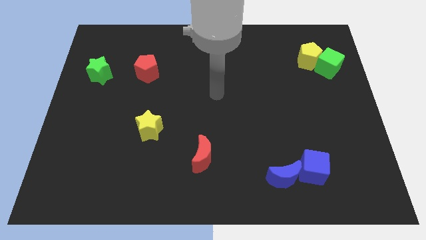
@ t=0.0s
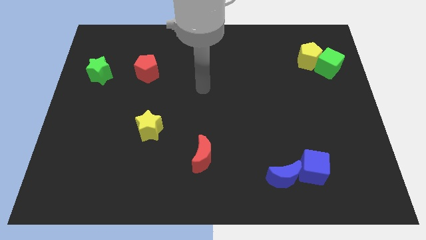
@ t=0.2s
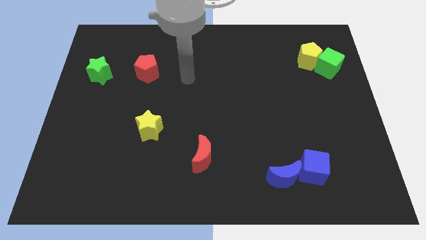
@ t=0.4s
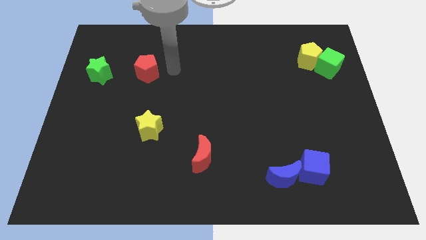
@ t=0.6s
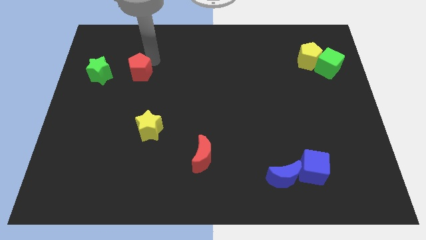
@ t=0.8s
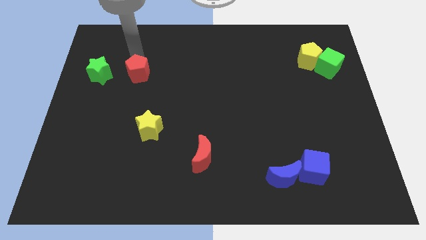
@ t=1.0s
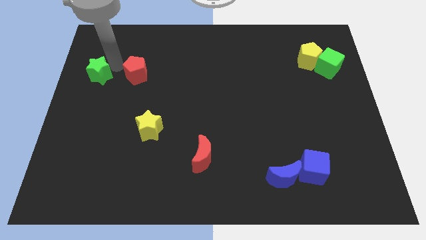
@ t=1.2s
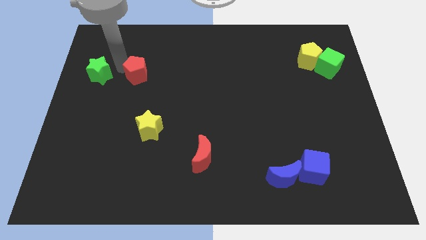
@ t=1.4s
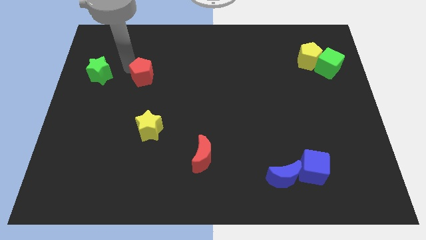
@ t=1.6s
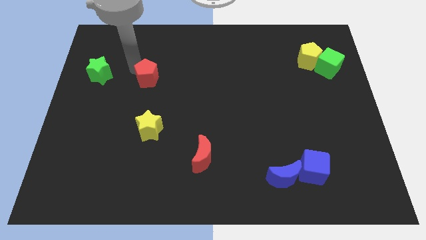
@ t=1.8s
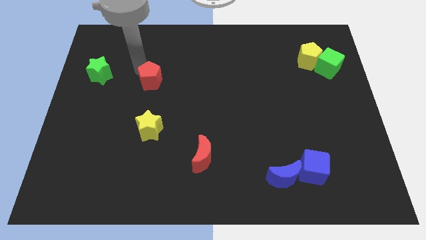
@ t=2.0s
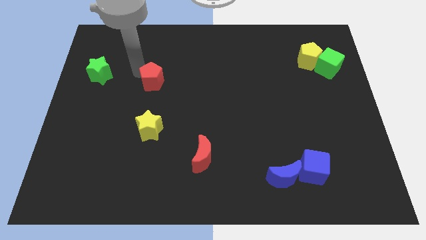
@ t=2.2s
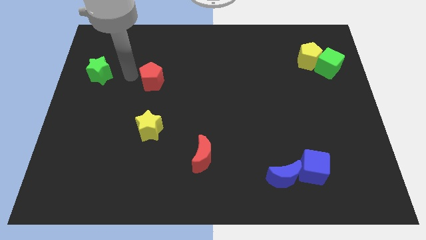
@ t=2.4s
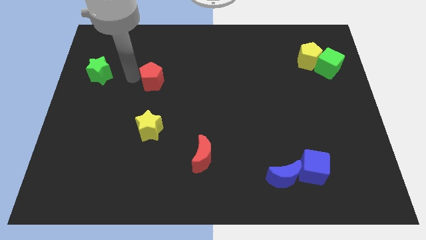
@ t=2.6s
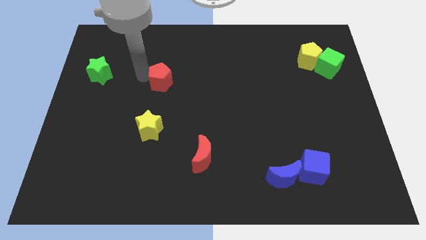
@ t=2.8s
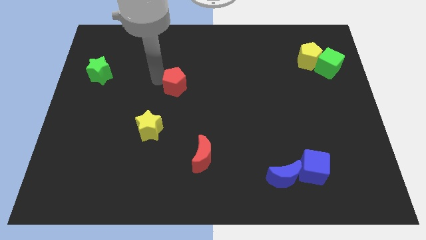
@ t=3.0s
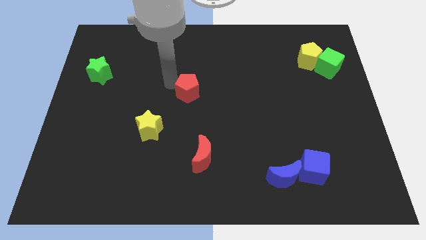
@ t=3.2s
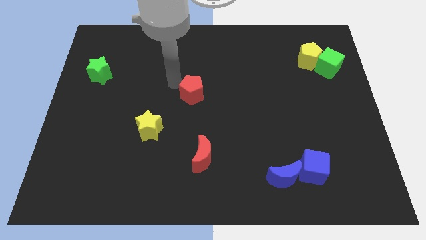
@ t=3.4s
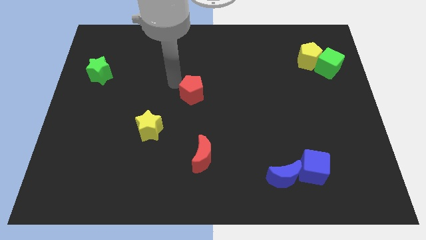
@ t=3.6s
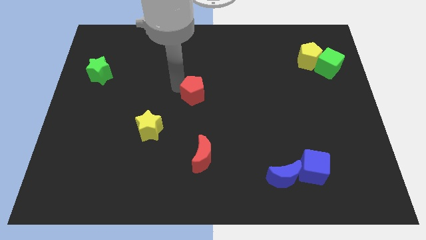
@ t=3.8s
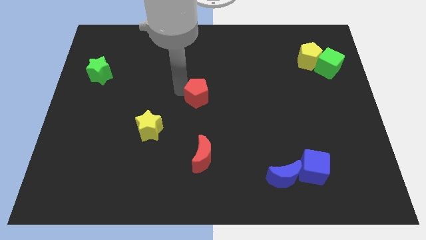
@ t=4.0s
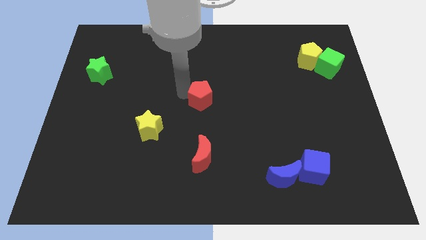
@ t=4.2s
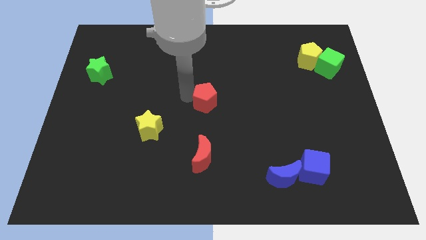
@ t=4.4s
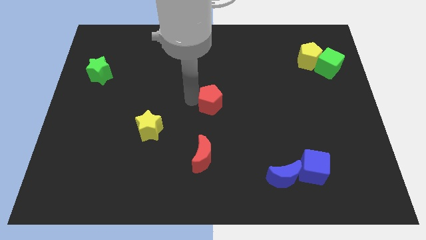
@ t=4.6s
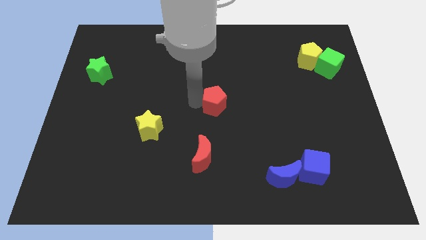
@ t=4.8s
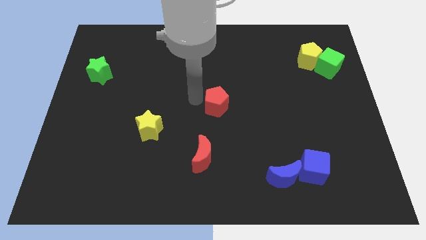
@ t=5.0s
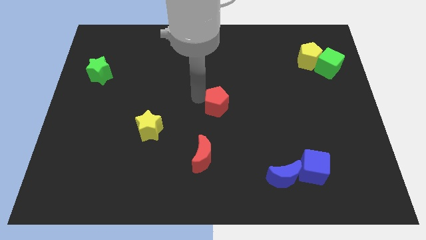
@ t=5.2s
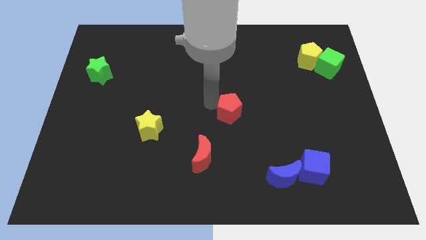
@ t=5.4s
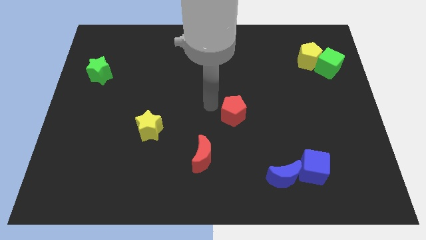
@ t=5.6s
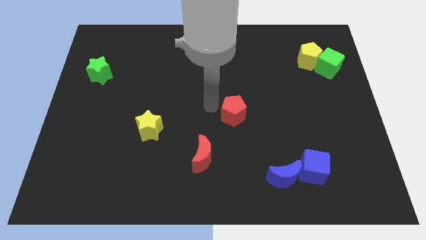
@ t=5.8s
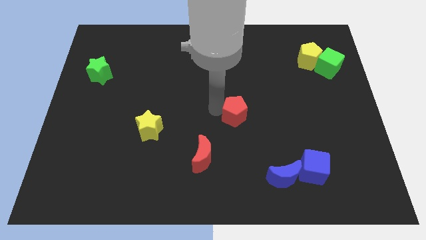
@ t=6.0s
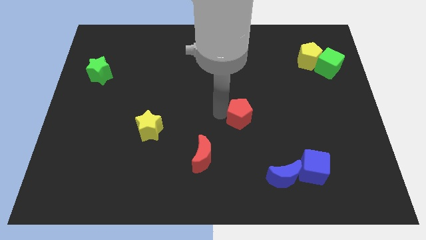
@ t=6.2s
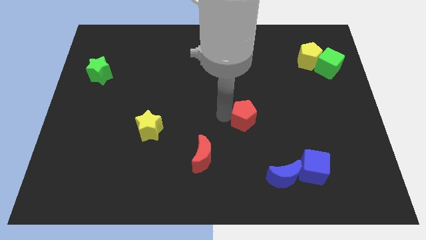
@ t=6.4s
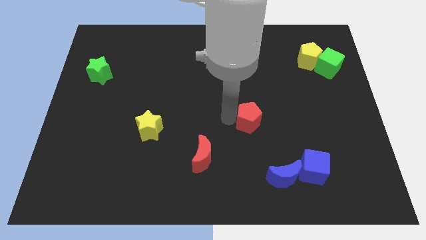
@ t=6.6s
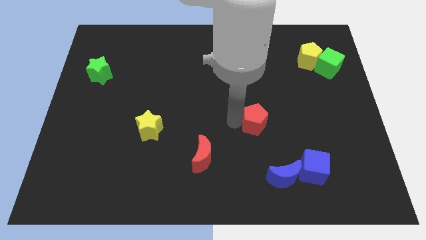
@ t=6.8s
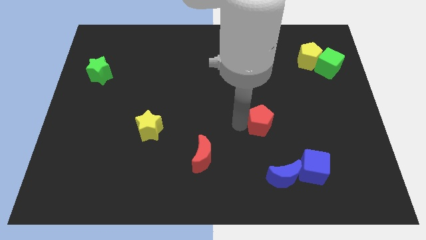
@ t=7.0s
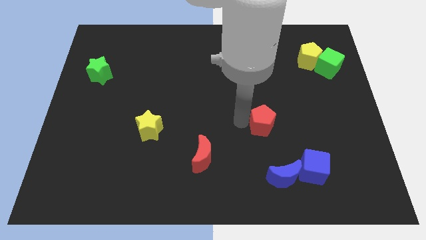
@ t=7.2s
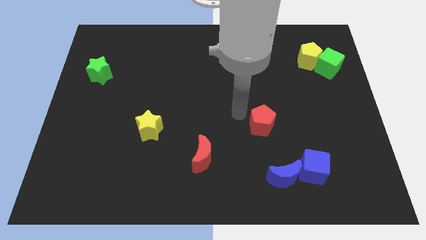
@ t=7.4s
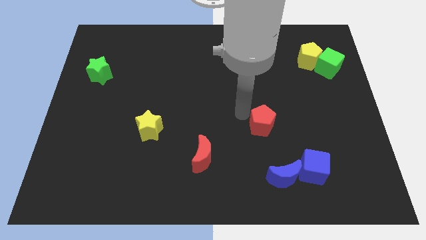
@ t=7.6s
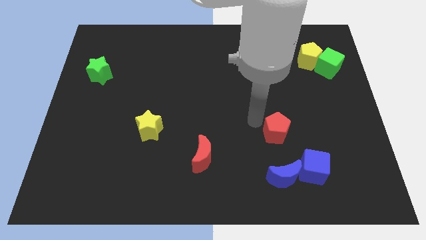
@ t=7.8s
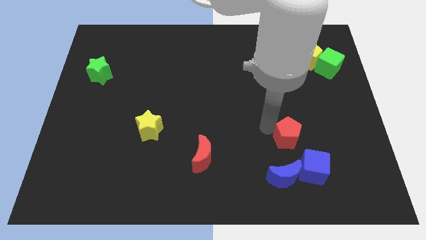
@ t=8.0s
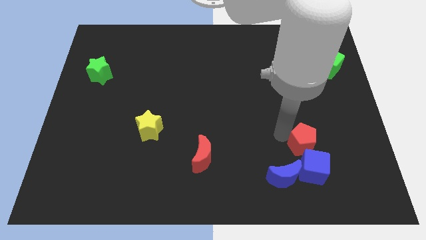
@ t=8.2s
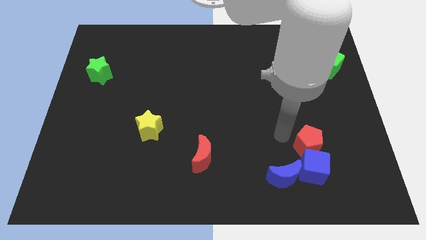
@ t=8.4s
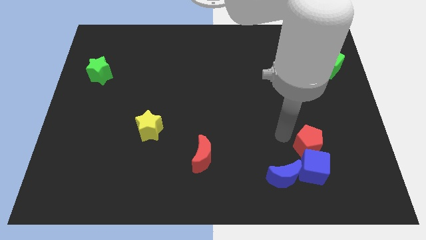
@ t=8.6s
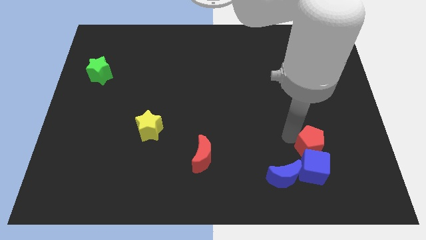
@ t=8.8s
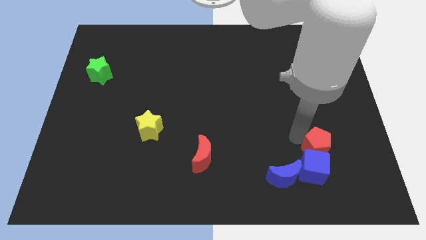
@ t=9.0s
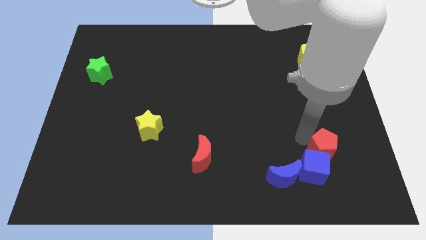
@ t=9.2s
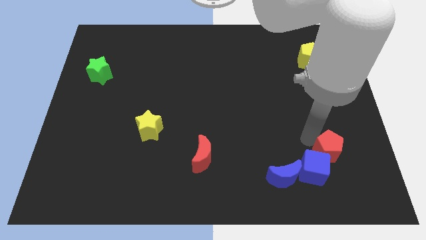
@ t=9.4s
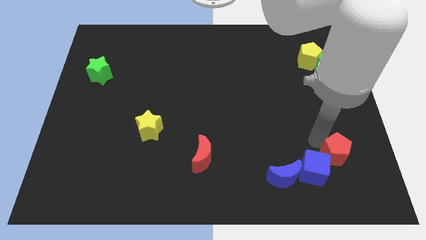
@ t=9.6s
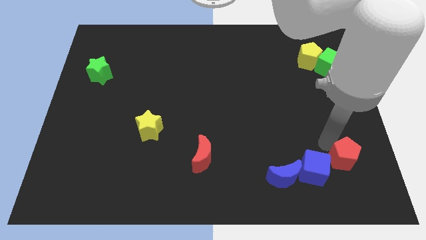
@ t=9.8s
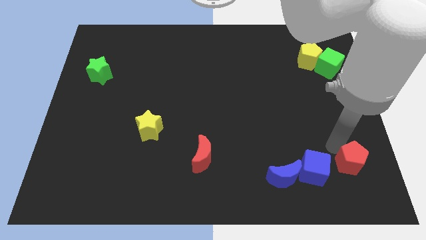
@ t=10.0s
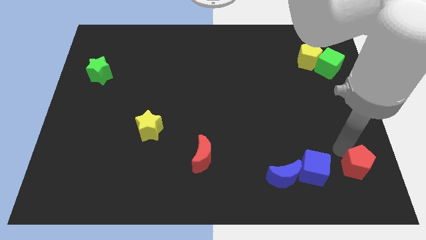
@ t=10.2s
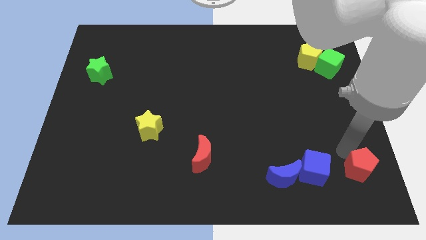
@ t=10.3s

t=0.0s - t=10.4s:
slide the red pentagon to the bottom right of the board

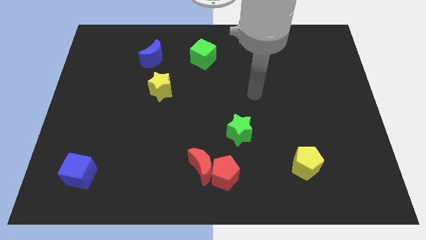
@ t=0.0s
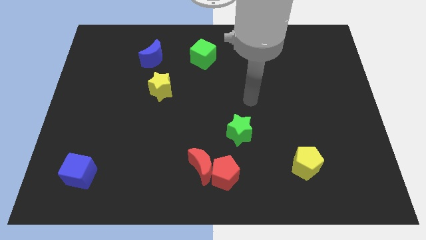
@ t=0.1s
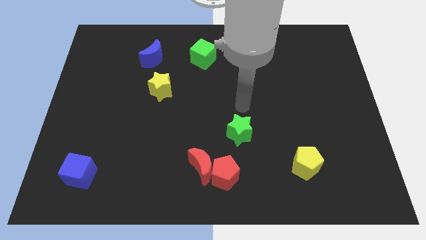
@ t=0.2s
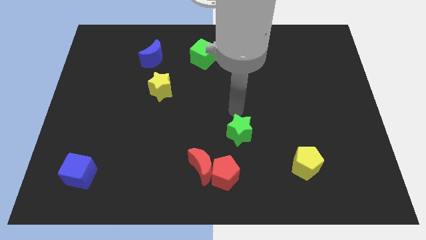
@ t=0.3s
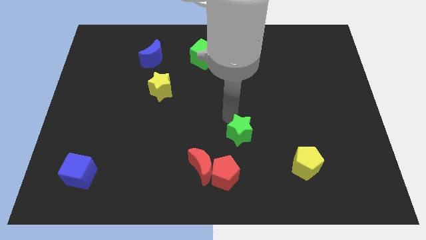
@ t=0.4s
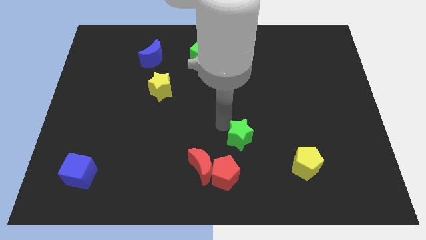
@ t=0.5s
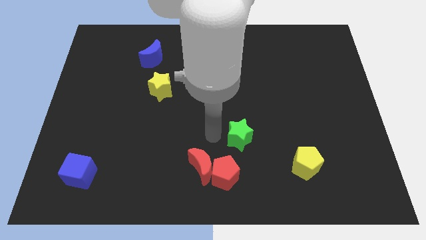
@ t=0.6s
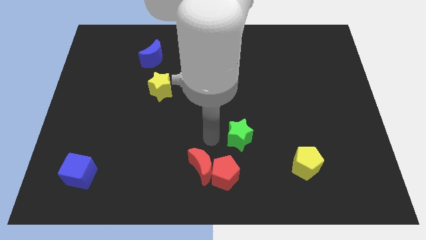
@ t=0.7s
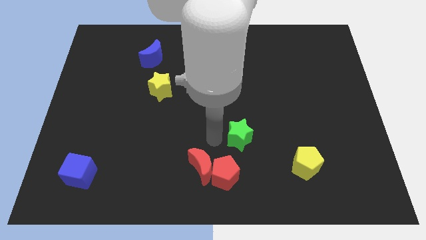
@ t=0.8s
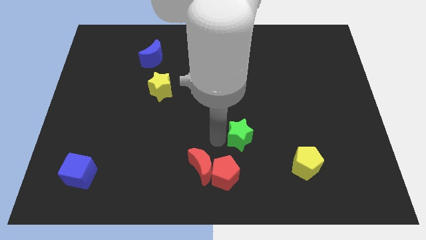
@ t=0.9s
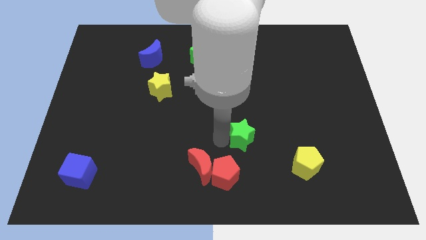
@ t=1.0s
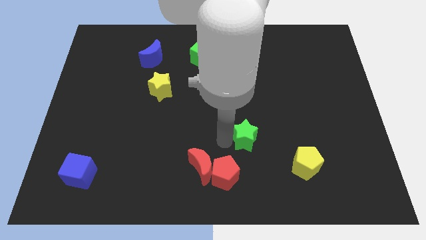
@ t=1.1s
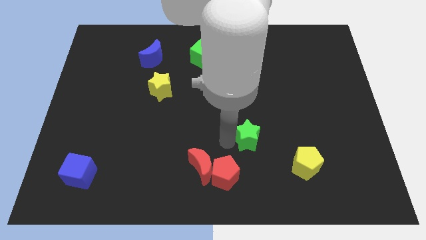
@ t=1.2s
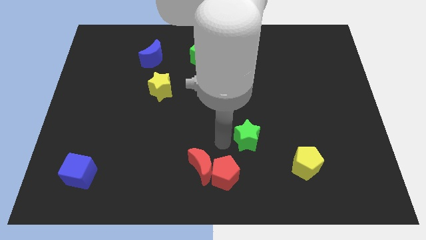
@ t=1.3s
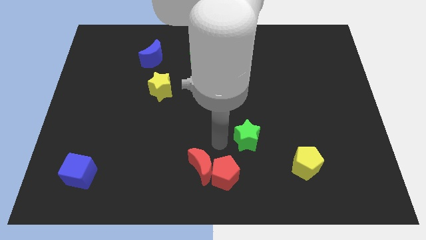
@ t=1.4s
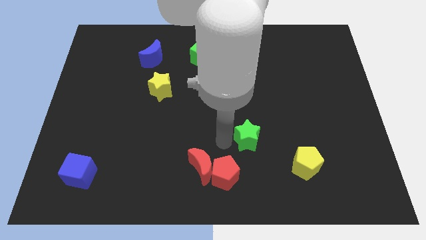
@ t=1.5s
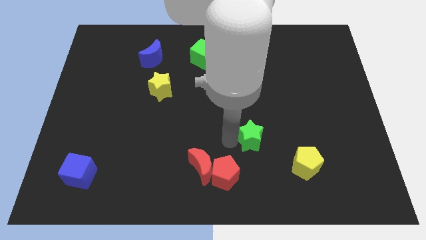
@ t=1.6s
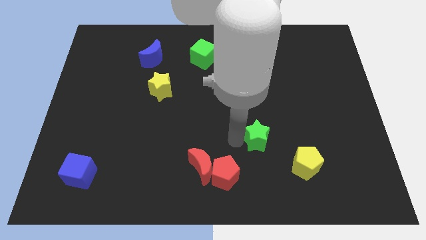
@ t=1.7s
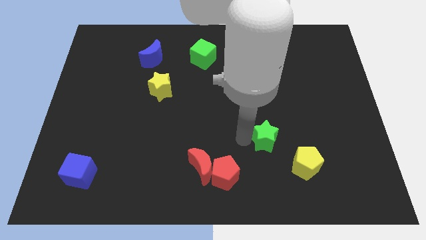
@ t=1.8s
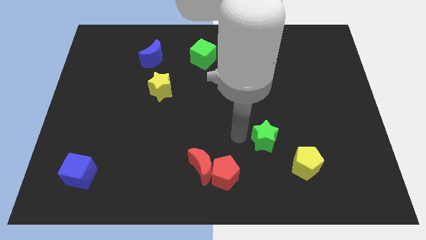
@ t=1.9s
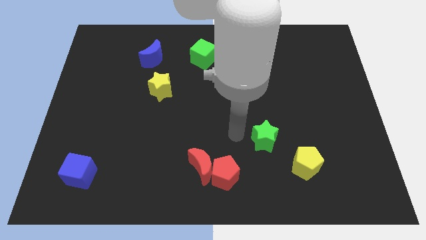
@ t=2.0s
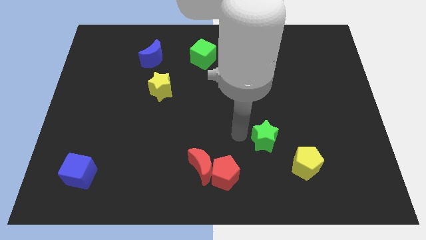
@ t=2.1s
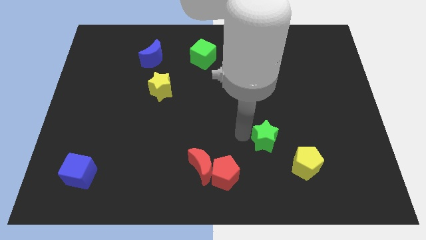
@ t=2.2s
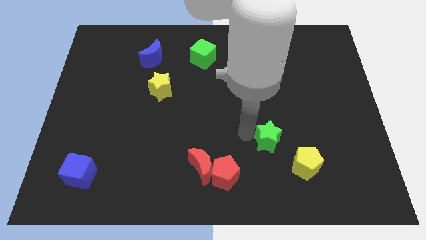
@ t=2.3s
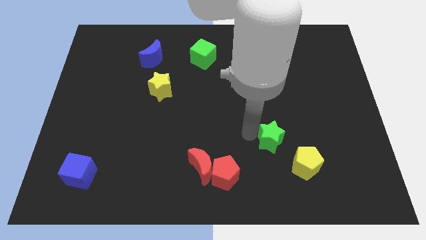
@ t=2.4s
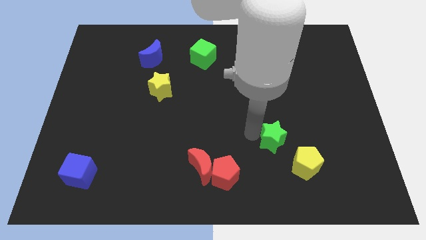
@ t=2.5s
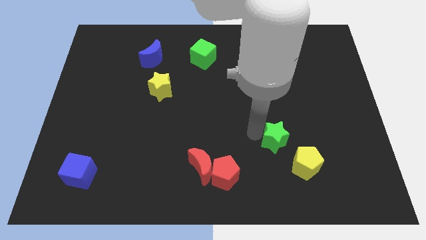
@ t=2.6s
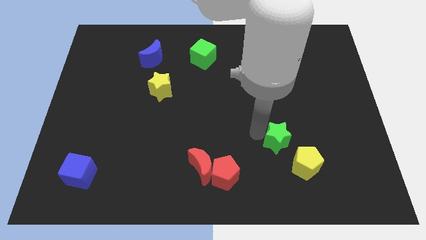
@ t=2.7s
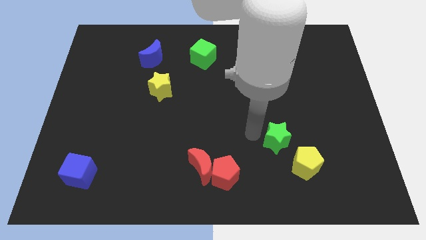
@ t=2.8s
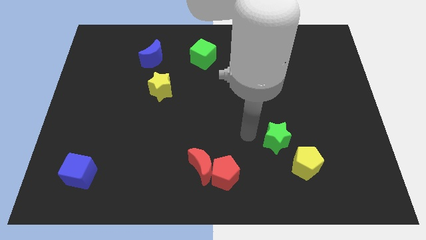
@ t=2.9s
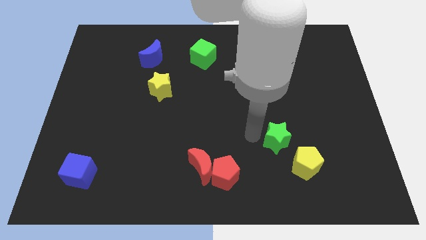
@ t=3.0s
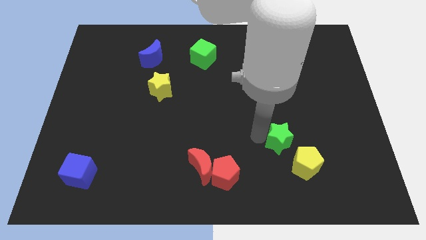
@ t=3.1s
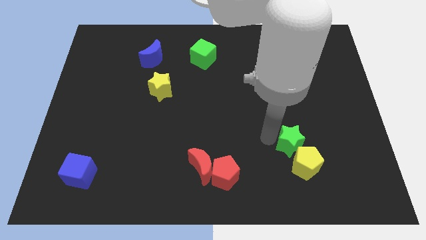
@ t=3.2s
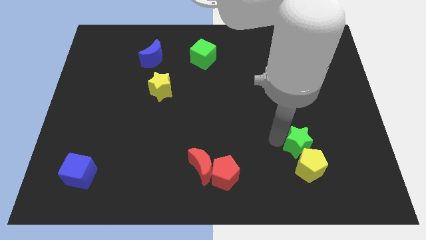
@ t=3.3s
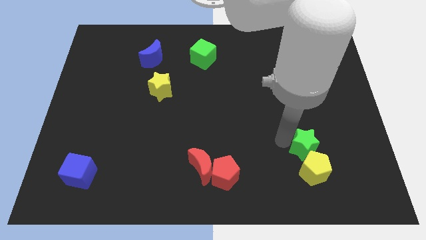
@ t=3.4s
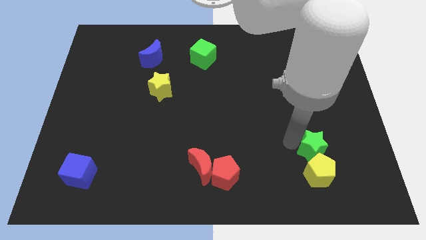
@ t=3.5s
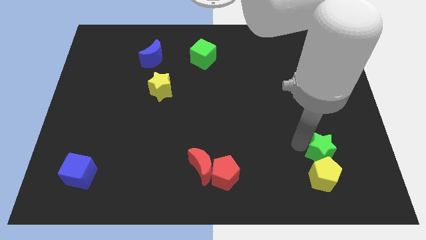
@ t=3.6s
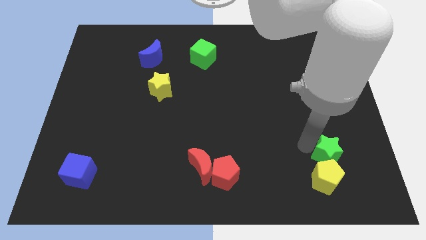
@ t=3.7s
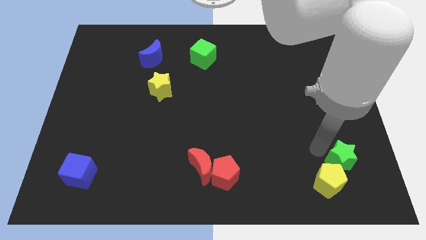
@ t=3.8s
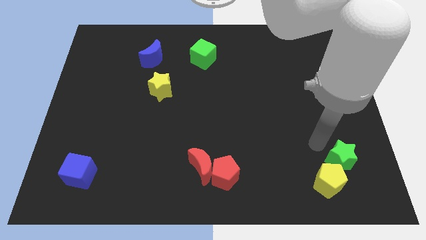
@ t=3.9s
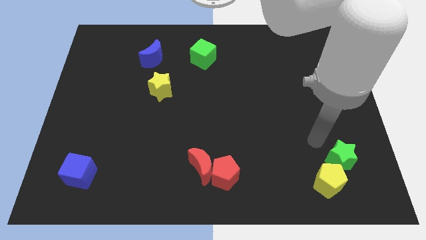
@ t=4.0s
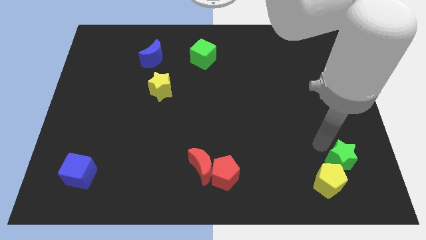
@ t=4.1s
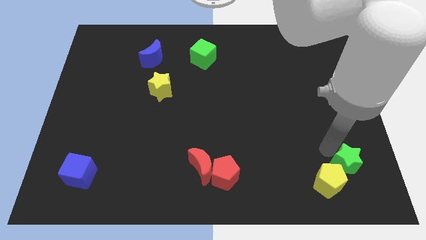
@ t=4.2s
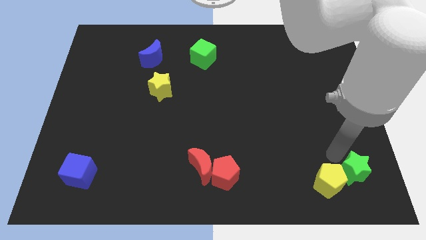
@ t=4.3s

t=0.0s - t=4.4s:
push the green star to the bottom right of the board
